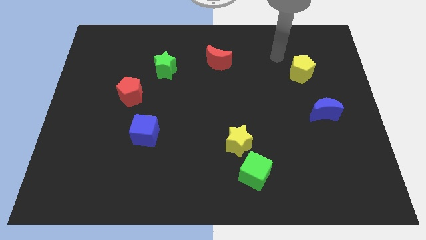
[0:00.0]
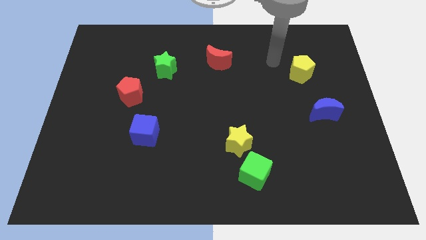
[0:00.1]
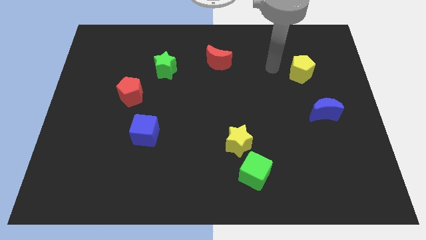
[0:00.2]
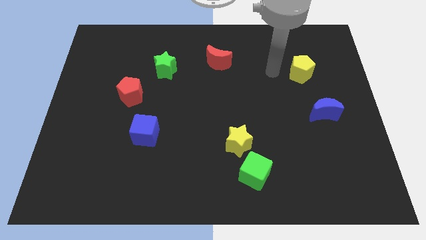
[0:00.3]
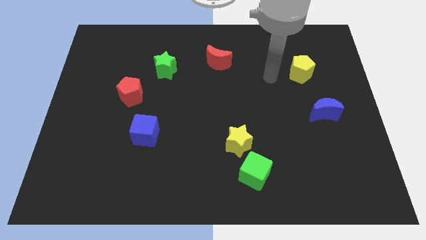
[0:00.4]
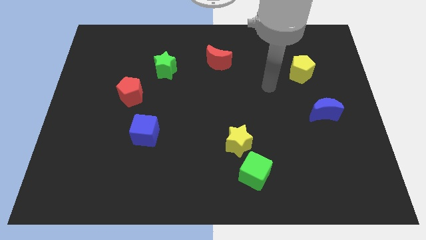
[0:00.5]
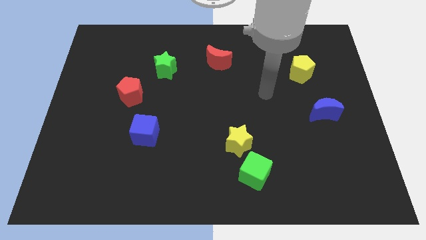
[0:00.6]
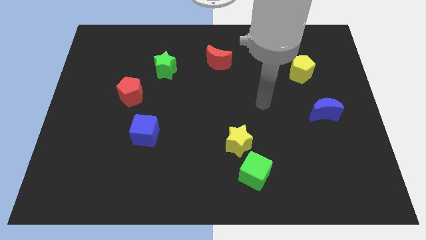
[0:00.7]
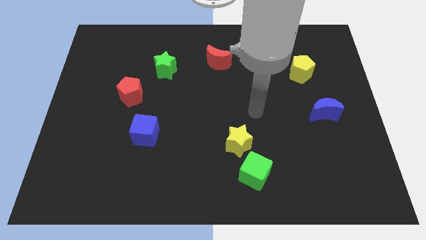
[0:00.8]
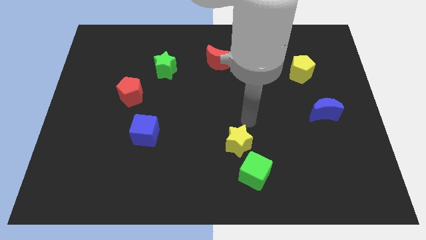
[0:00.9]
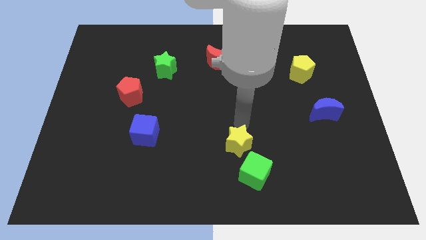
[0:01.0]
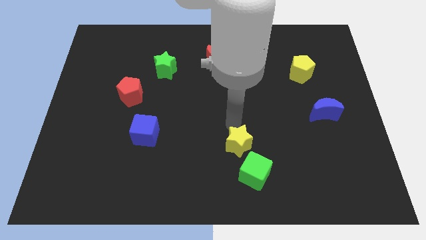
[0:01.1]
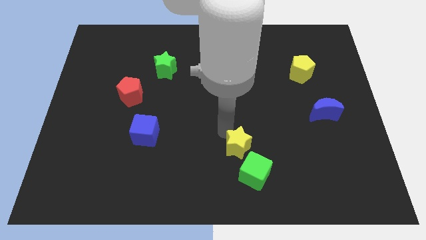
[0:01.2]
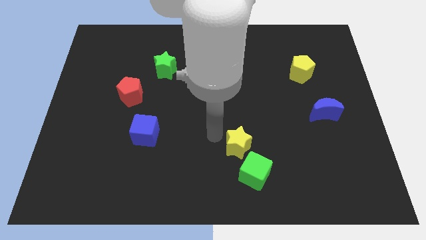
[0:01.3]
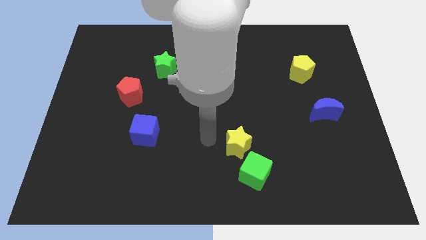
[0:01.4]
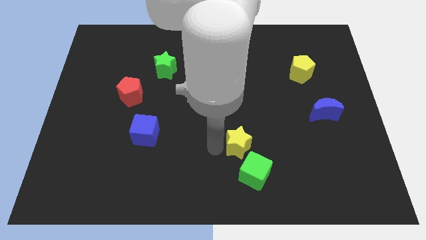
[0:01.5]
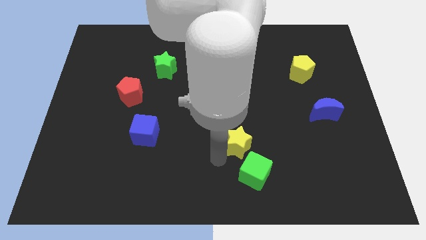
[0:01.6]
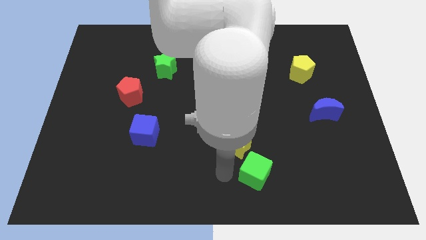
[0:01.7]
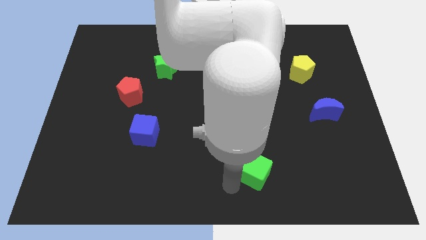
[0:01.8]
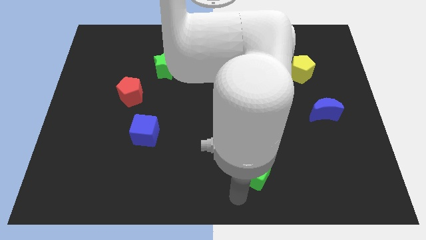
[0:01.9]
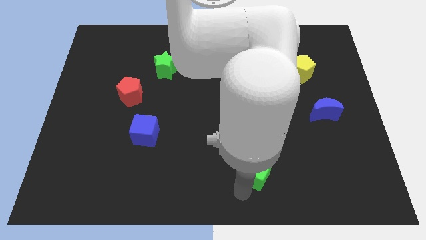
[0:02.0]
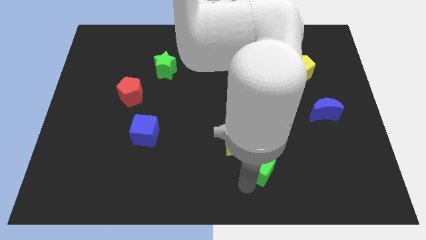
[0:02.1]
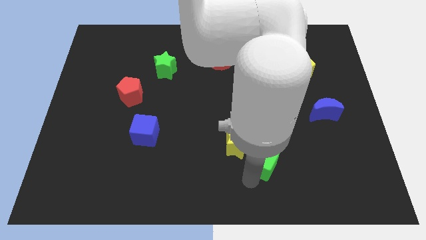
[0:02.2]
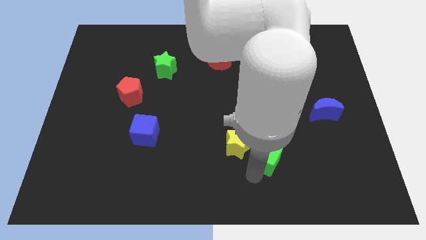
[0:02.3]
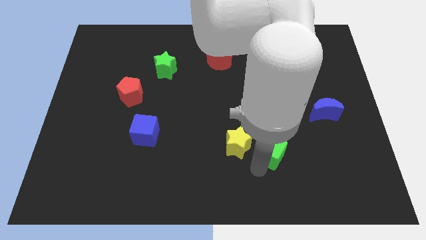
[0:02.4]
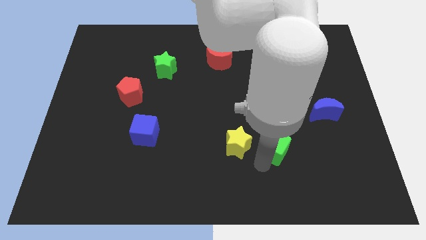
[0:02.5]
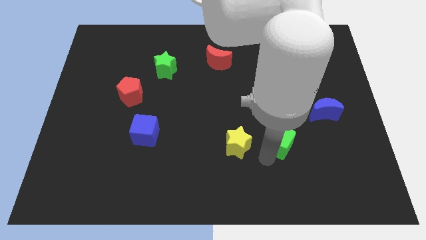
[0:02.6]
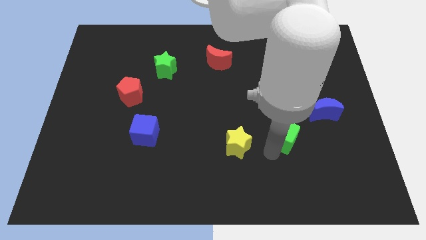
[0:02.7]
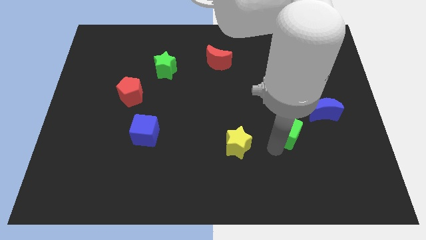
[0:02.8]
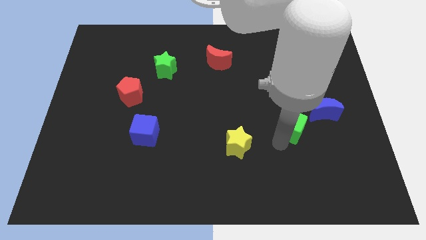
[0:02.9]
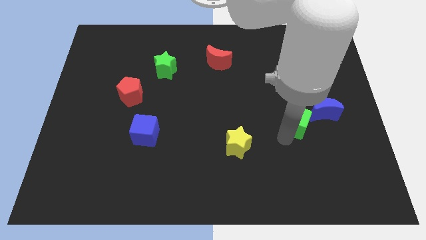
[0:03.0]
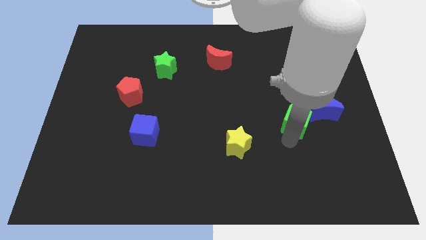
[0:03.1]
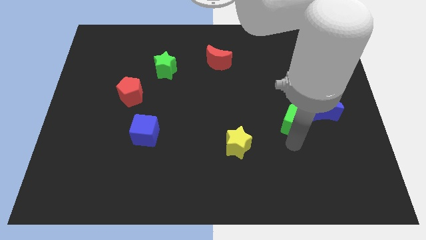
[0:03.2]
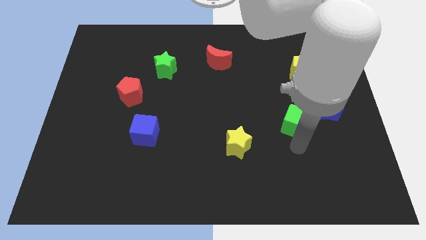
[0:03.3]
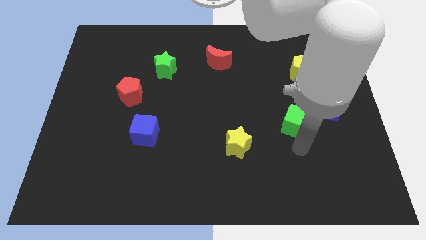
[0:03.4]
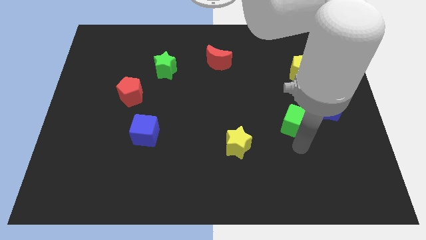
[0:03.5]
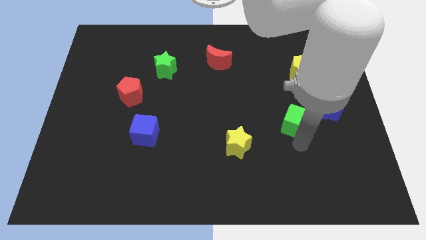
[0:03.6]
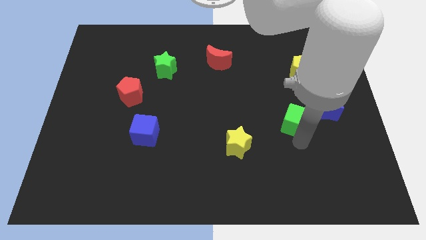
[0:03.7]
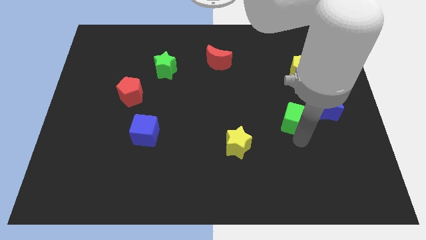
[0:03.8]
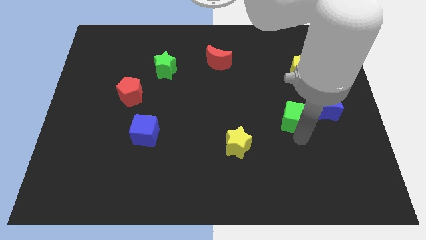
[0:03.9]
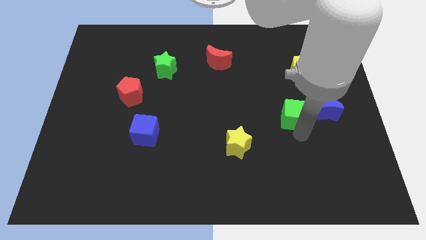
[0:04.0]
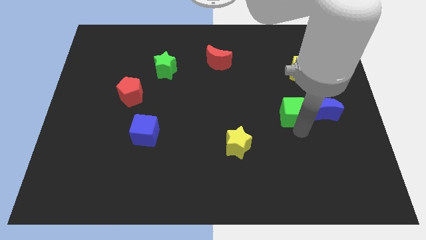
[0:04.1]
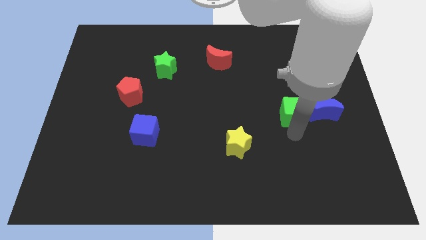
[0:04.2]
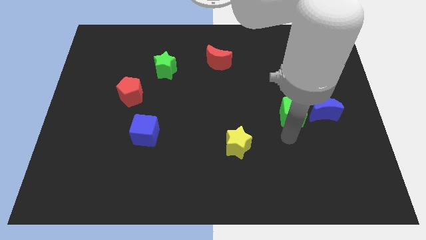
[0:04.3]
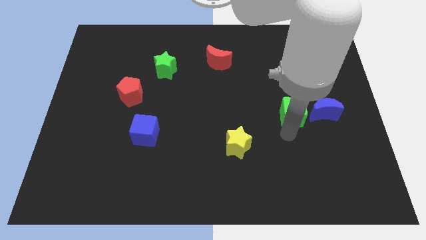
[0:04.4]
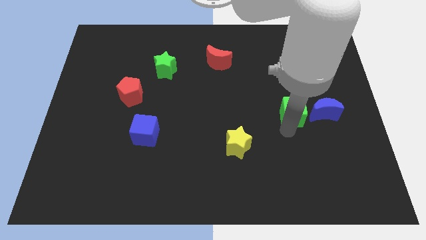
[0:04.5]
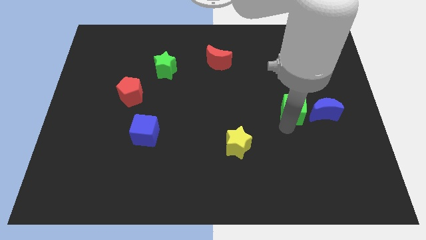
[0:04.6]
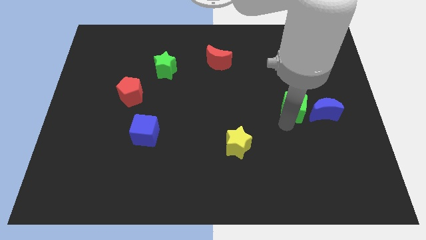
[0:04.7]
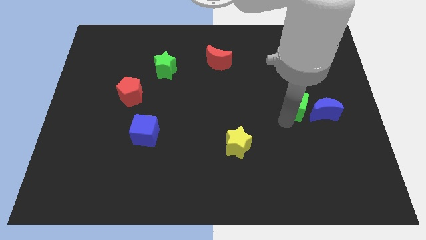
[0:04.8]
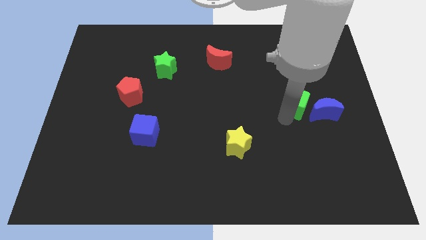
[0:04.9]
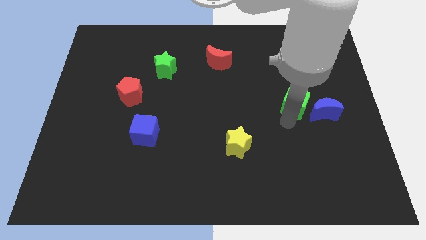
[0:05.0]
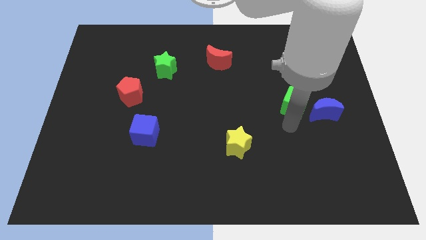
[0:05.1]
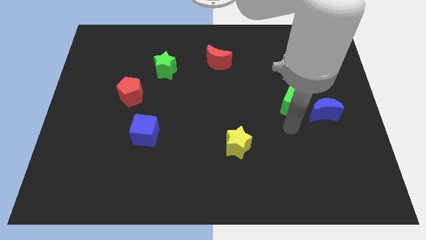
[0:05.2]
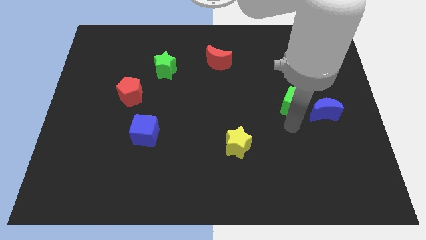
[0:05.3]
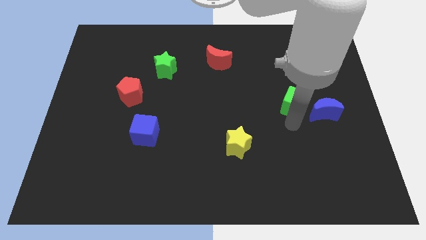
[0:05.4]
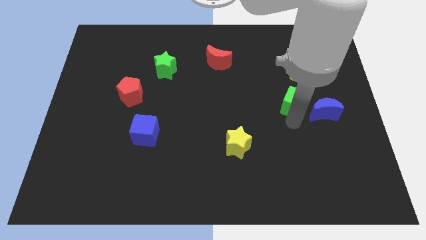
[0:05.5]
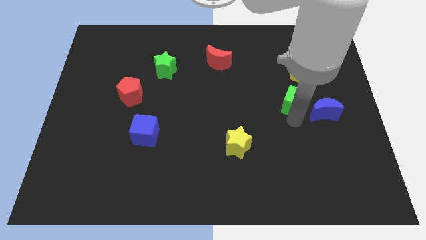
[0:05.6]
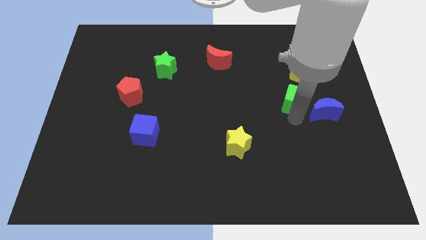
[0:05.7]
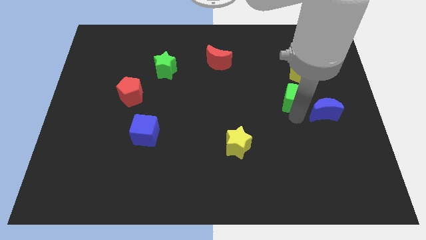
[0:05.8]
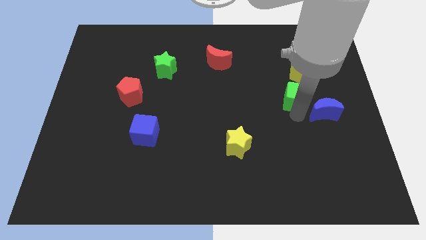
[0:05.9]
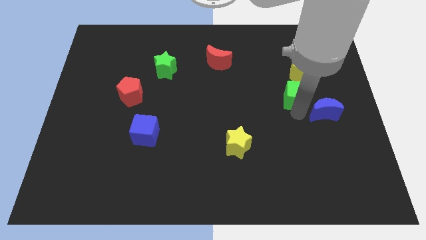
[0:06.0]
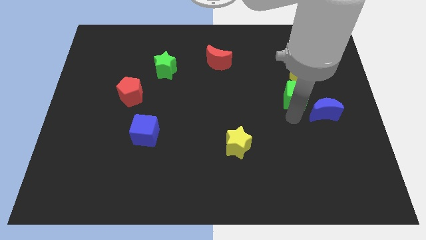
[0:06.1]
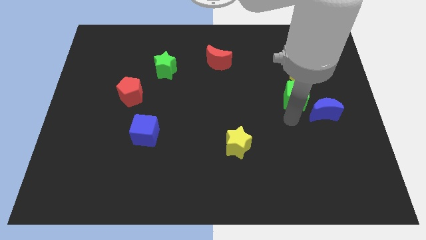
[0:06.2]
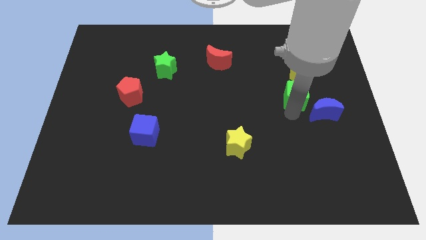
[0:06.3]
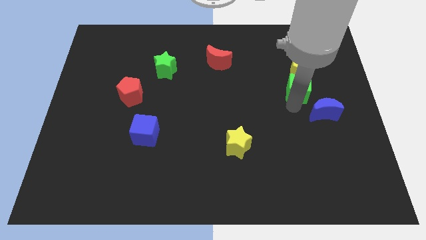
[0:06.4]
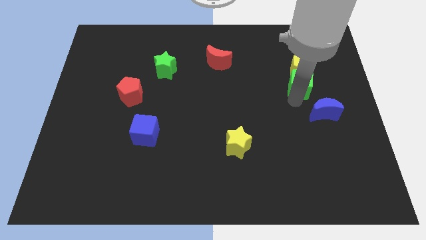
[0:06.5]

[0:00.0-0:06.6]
slide the green cube close to the yellow pentagon

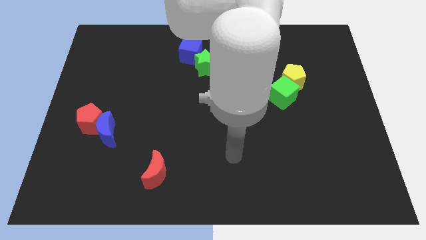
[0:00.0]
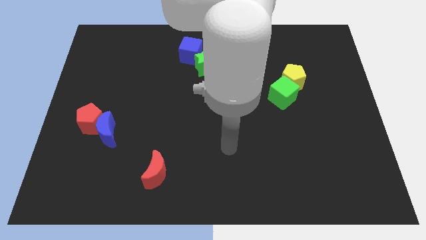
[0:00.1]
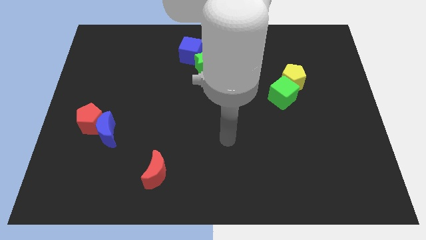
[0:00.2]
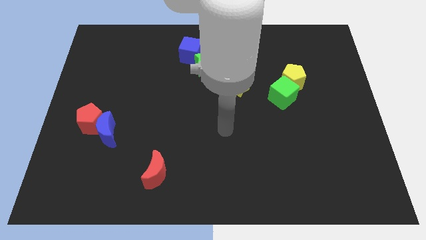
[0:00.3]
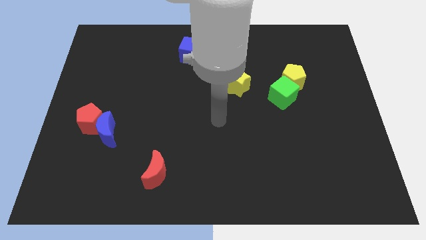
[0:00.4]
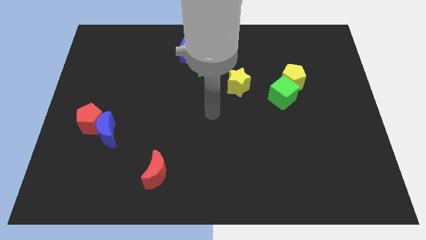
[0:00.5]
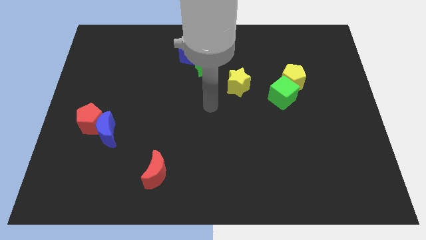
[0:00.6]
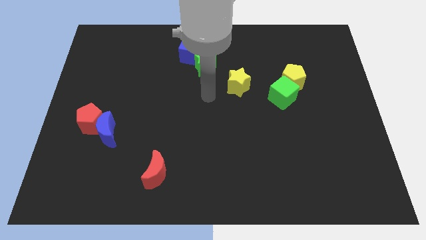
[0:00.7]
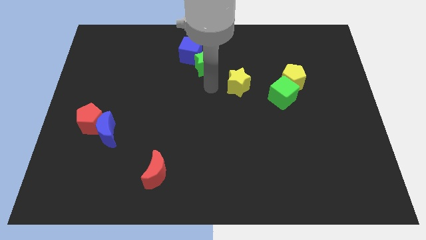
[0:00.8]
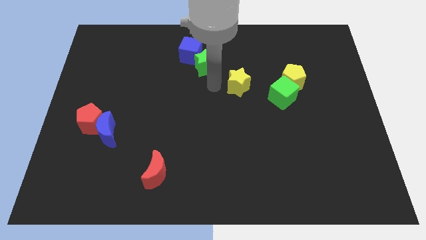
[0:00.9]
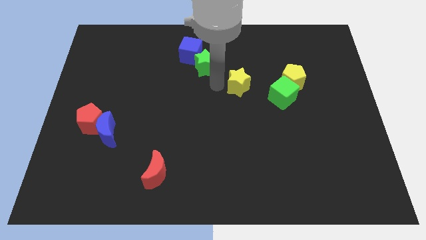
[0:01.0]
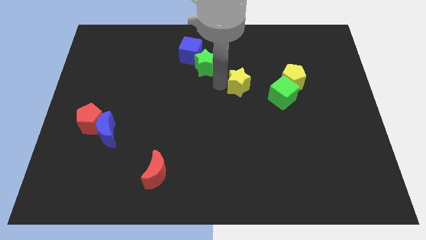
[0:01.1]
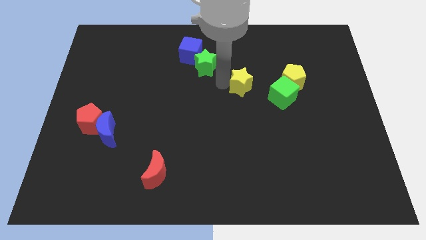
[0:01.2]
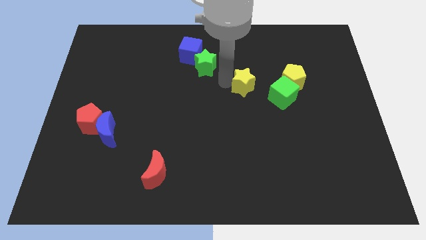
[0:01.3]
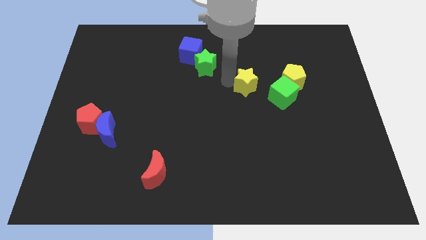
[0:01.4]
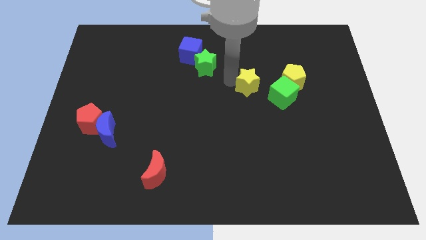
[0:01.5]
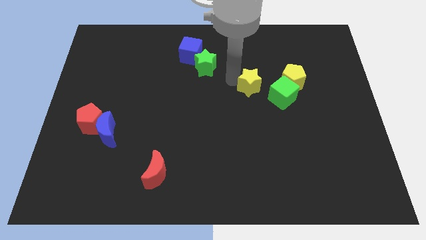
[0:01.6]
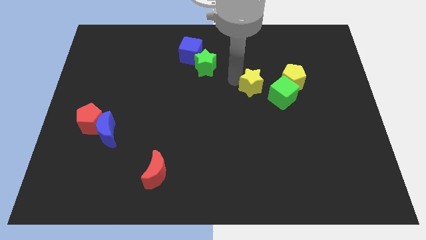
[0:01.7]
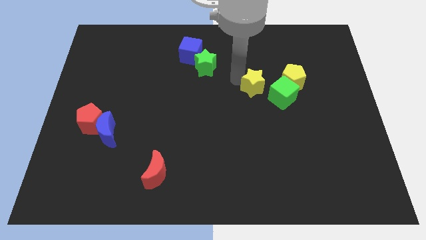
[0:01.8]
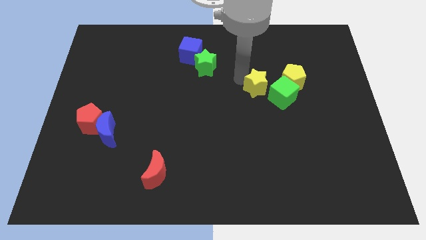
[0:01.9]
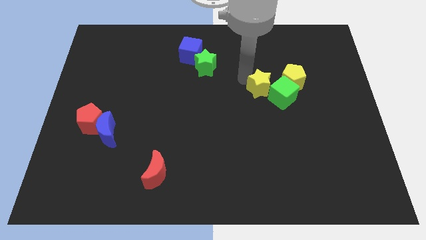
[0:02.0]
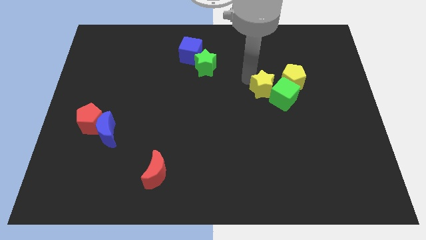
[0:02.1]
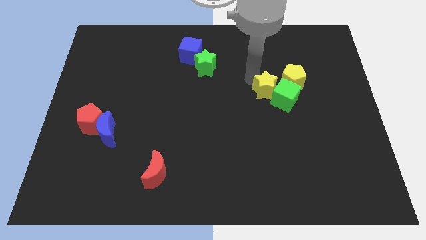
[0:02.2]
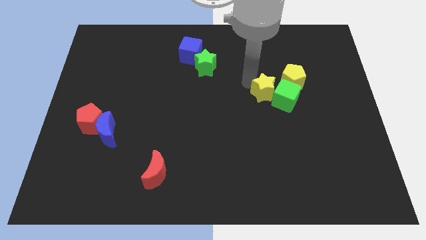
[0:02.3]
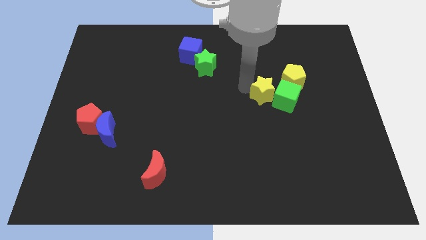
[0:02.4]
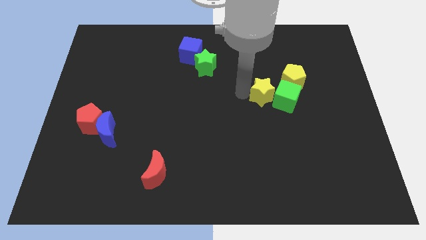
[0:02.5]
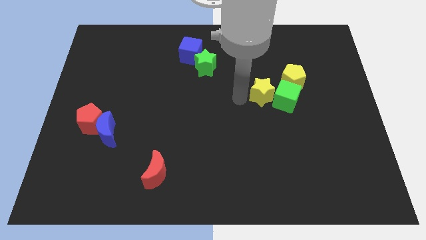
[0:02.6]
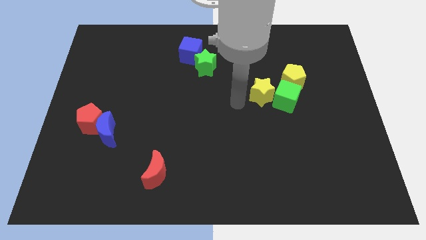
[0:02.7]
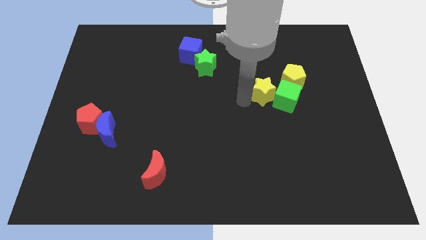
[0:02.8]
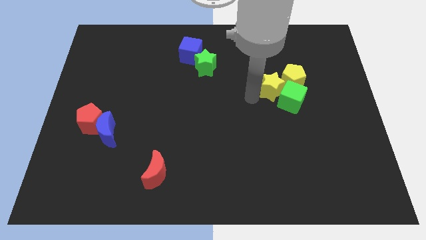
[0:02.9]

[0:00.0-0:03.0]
push the yellow star close to the yellow pentagon
